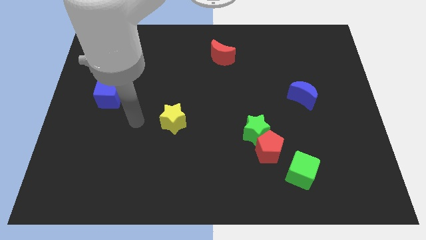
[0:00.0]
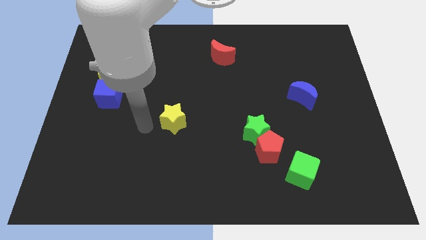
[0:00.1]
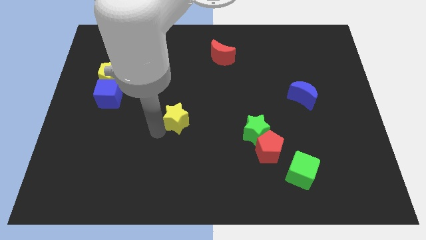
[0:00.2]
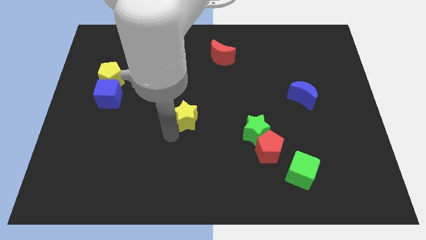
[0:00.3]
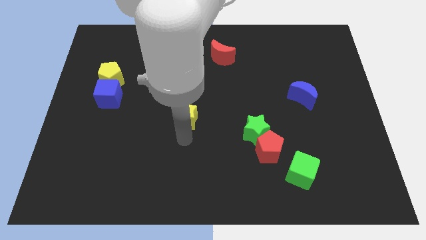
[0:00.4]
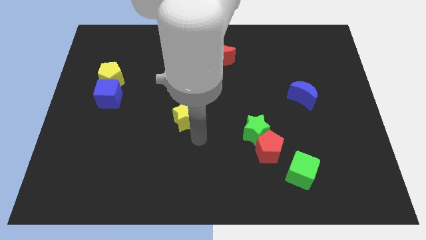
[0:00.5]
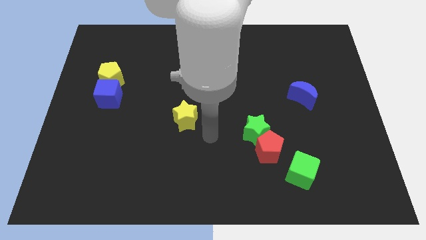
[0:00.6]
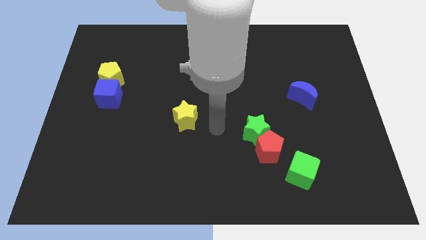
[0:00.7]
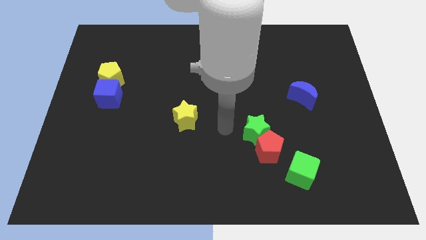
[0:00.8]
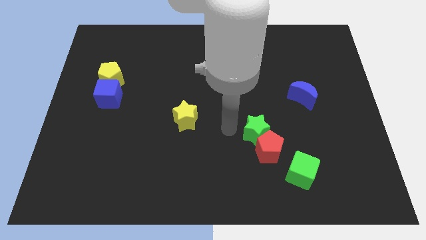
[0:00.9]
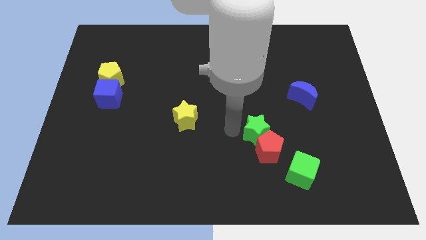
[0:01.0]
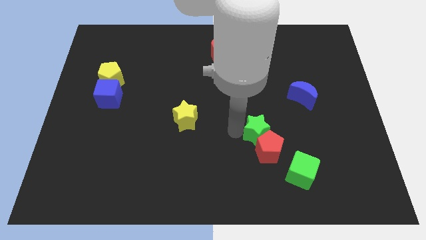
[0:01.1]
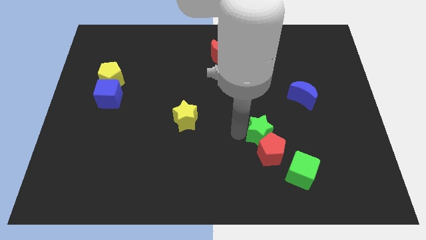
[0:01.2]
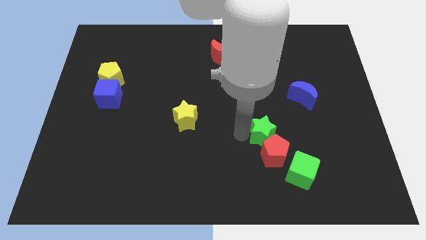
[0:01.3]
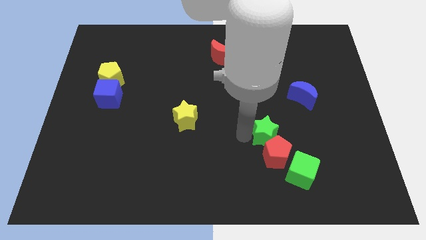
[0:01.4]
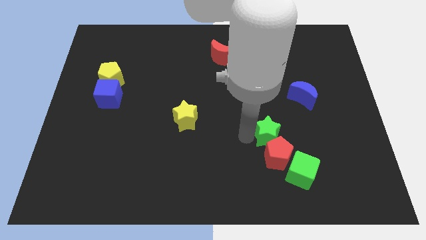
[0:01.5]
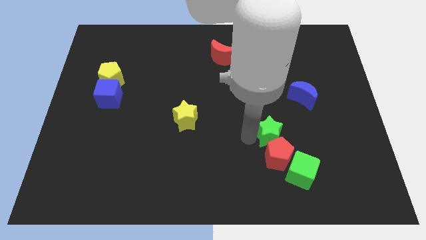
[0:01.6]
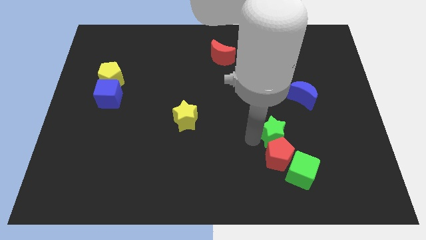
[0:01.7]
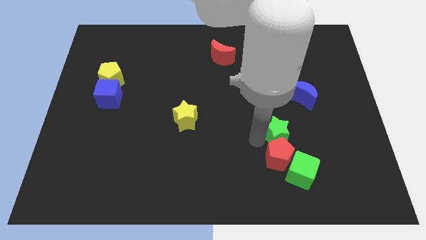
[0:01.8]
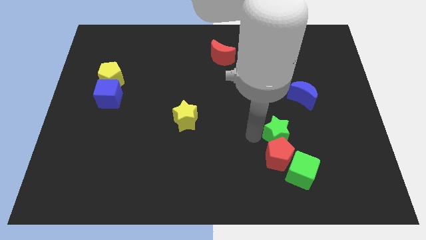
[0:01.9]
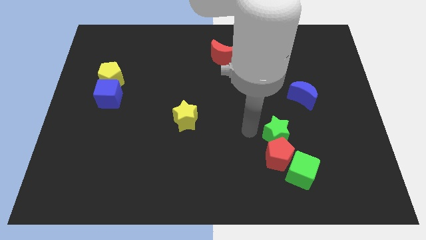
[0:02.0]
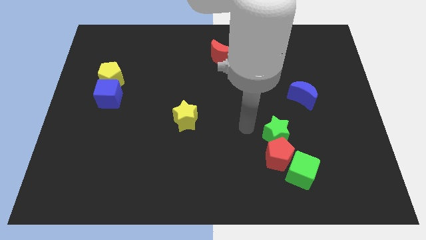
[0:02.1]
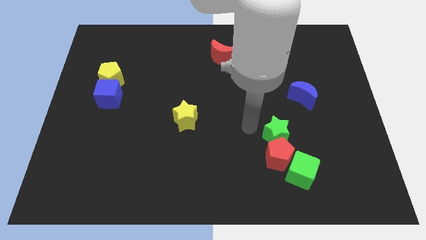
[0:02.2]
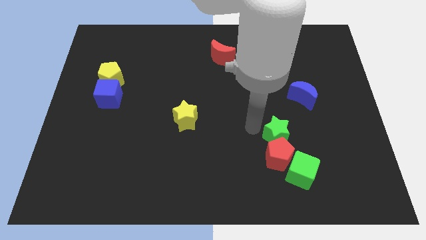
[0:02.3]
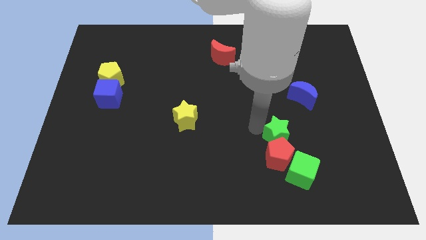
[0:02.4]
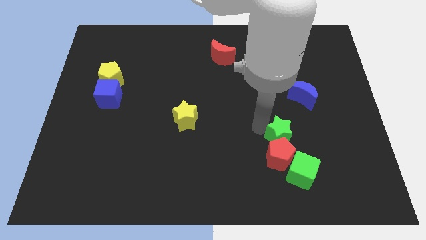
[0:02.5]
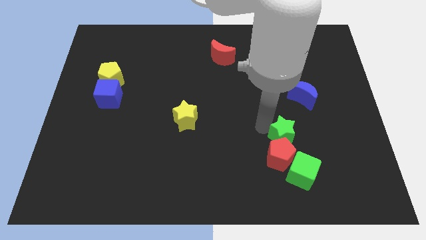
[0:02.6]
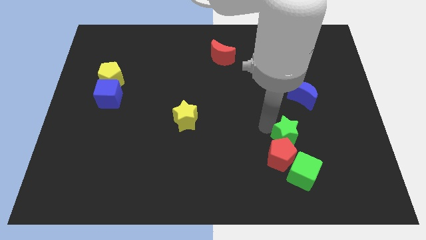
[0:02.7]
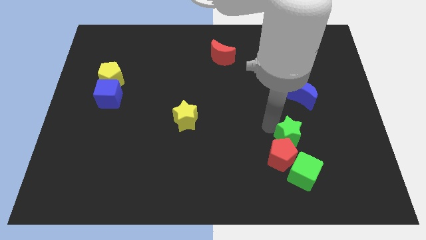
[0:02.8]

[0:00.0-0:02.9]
slide the green star to the right a bit

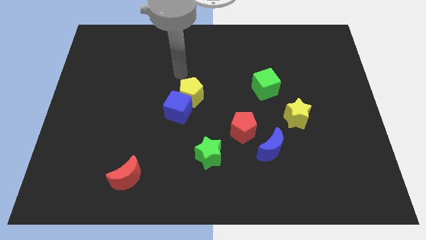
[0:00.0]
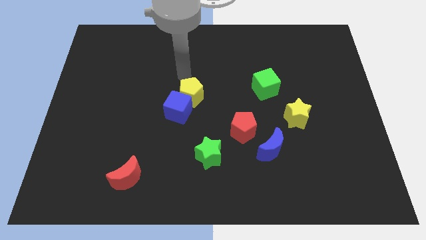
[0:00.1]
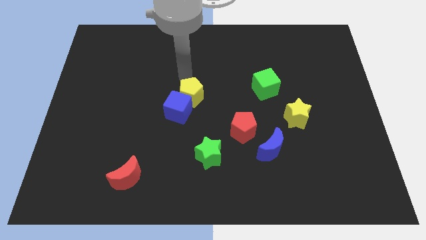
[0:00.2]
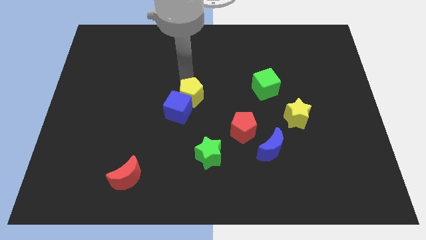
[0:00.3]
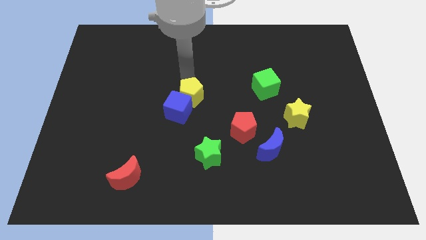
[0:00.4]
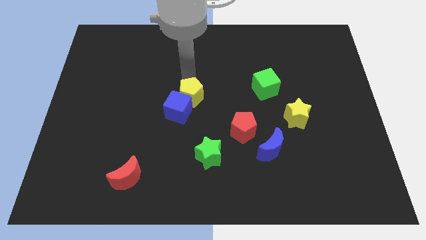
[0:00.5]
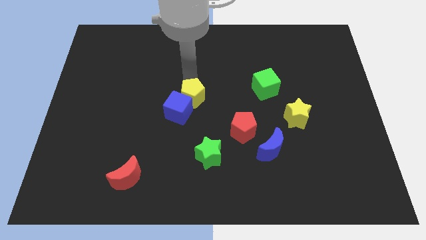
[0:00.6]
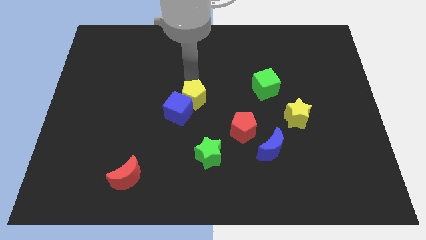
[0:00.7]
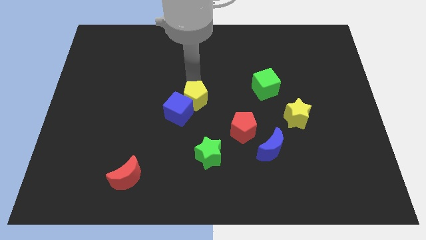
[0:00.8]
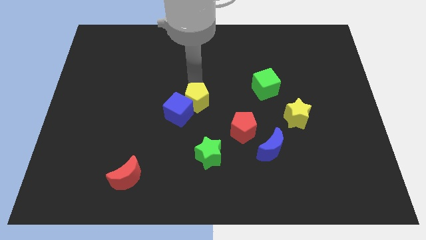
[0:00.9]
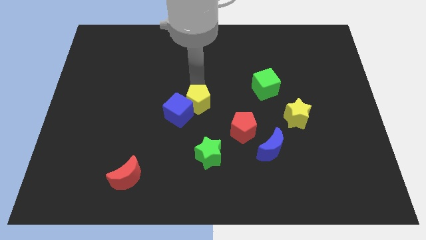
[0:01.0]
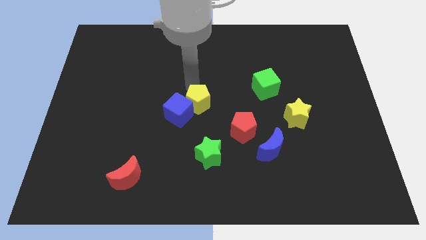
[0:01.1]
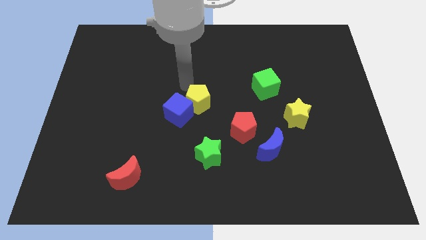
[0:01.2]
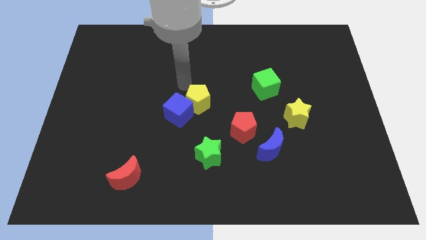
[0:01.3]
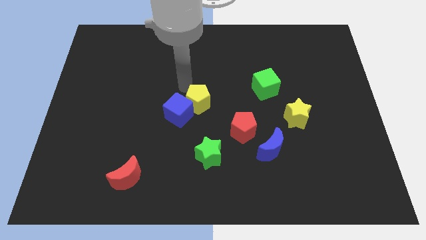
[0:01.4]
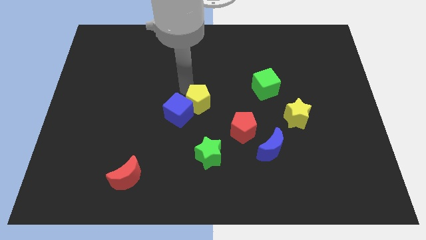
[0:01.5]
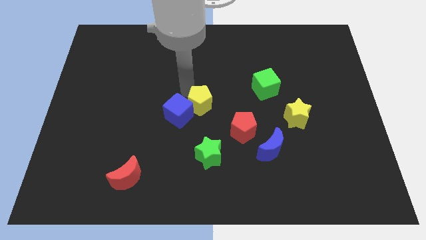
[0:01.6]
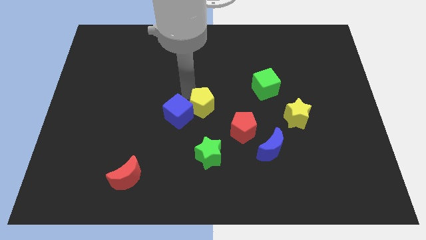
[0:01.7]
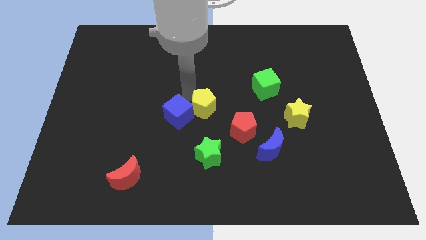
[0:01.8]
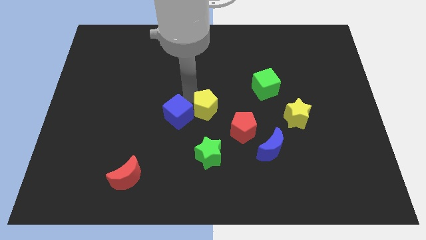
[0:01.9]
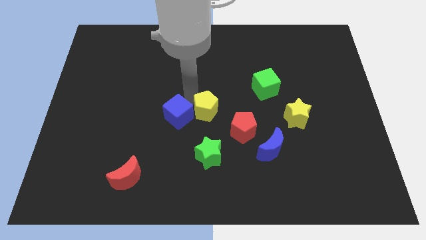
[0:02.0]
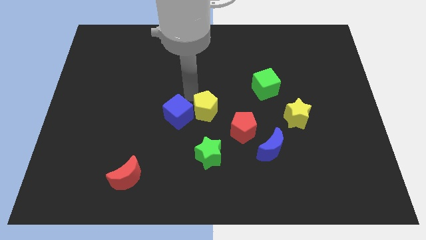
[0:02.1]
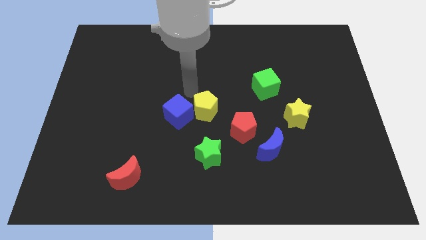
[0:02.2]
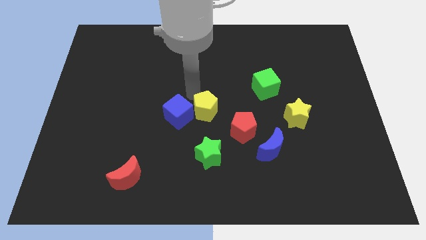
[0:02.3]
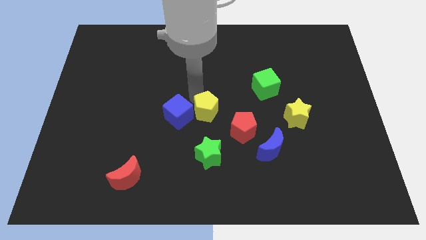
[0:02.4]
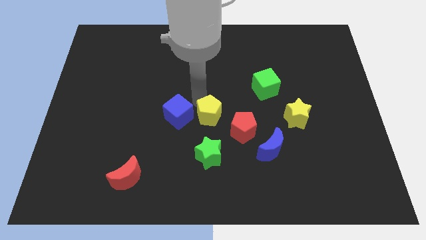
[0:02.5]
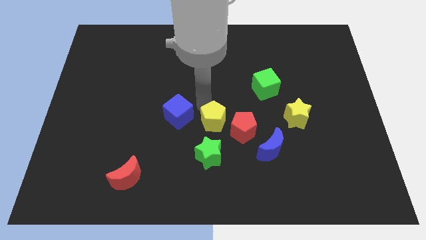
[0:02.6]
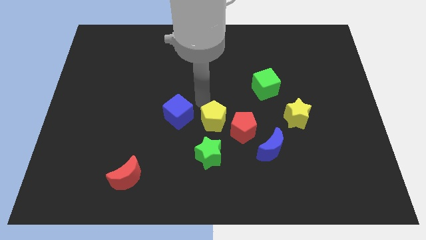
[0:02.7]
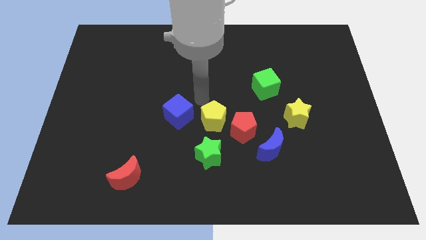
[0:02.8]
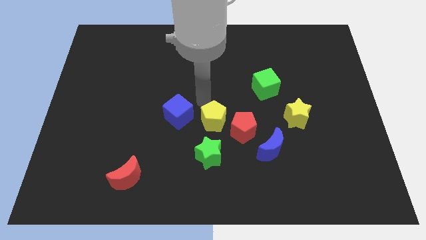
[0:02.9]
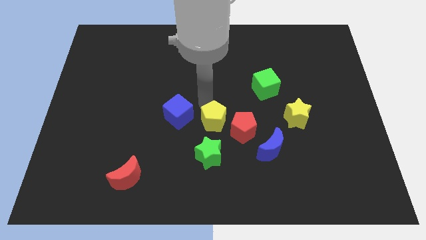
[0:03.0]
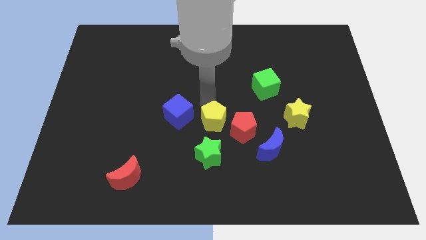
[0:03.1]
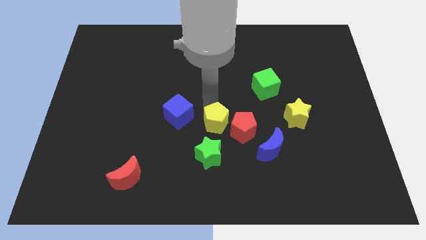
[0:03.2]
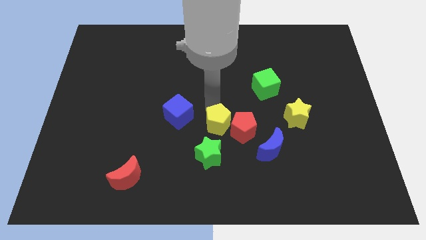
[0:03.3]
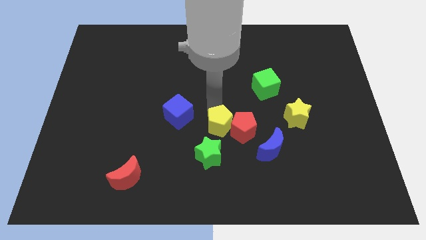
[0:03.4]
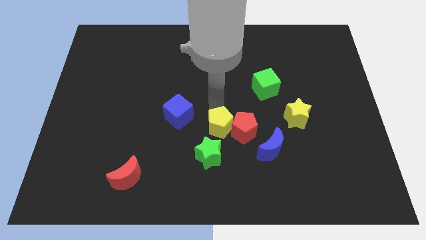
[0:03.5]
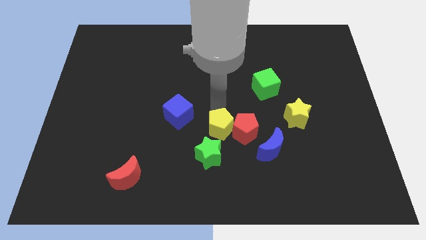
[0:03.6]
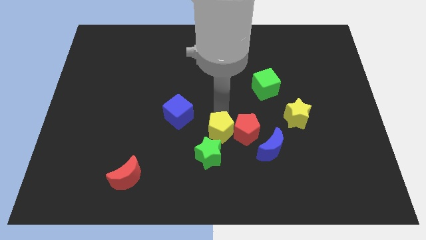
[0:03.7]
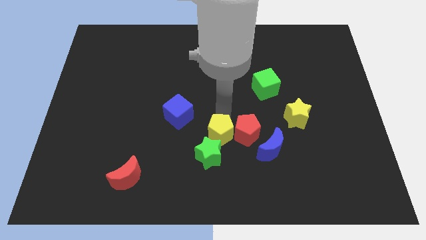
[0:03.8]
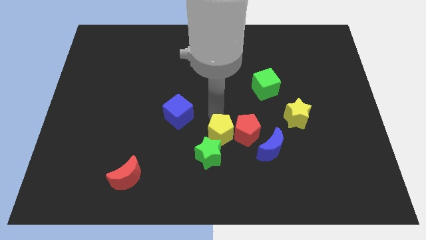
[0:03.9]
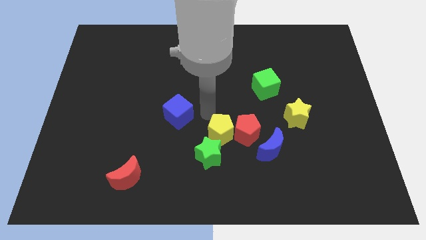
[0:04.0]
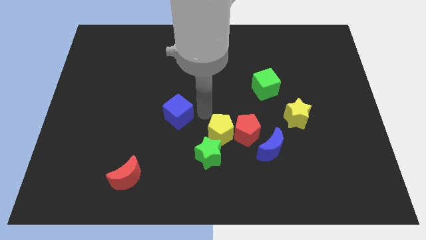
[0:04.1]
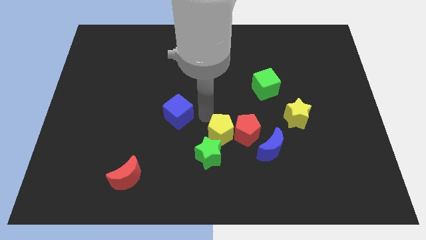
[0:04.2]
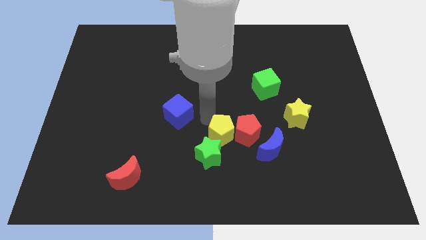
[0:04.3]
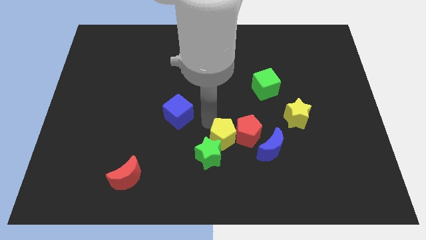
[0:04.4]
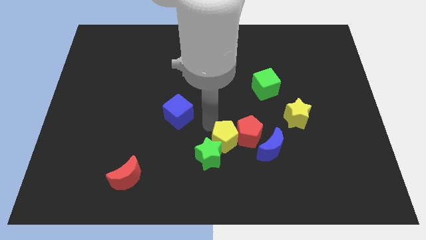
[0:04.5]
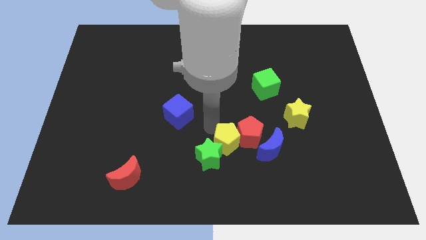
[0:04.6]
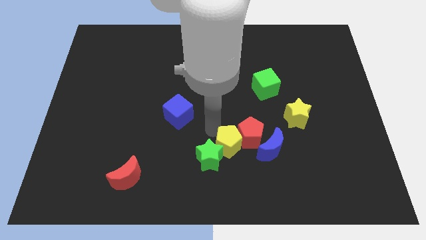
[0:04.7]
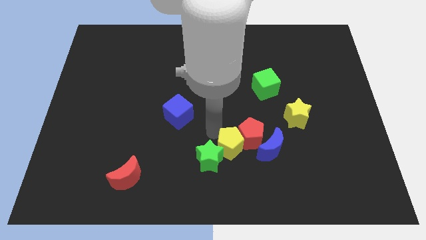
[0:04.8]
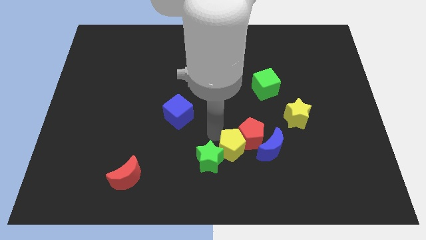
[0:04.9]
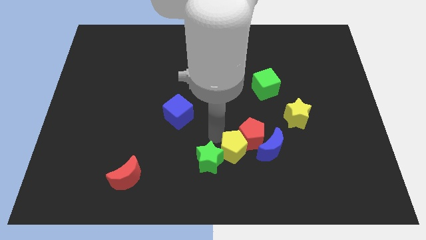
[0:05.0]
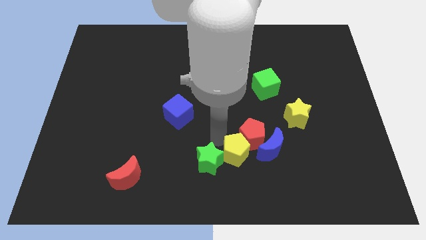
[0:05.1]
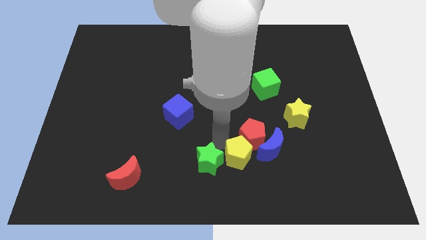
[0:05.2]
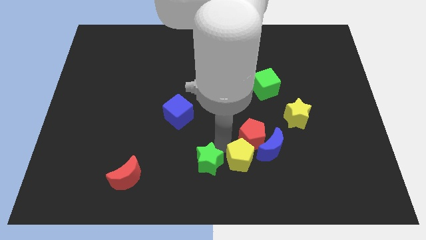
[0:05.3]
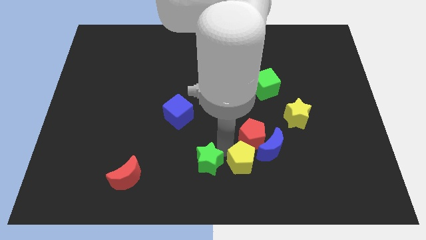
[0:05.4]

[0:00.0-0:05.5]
slide the yellow pentagon down and then to the right
